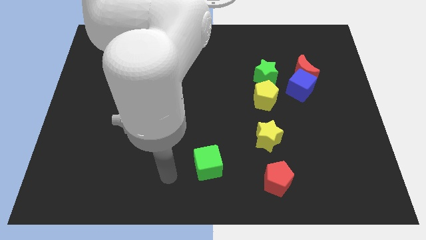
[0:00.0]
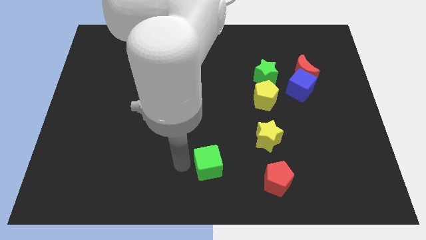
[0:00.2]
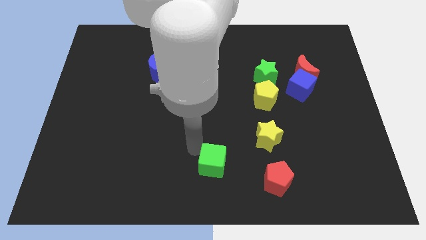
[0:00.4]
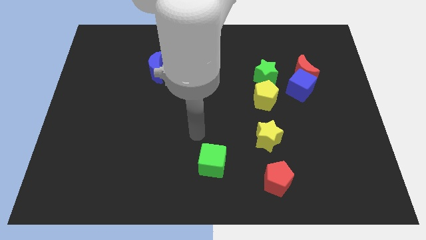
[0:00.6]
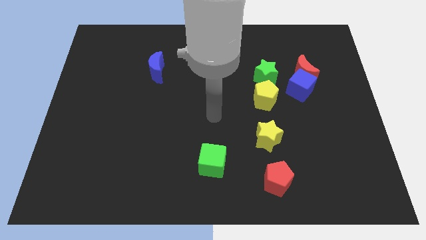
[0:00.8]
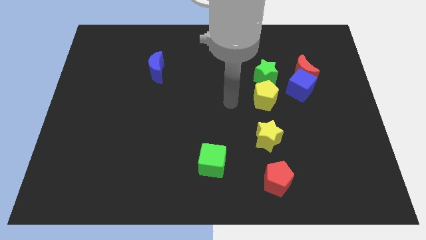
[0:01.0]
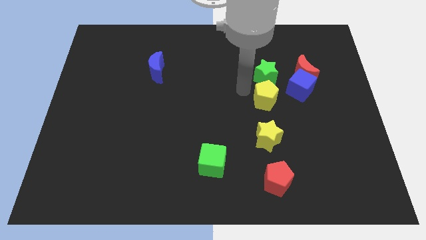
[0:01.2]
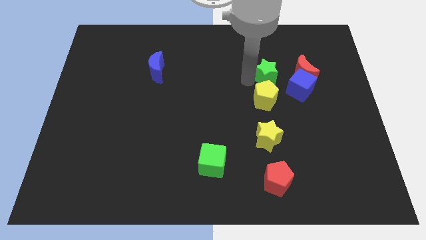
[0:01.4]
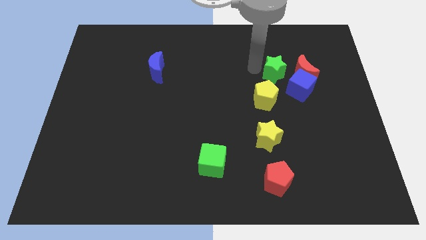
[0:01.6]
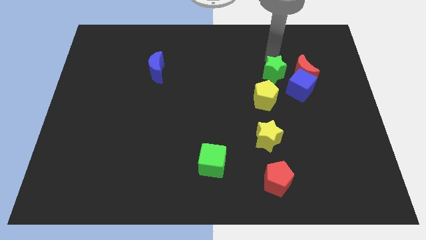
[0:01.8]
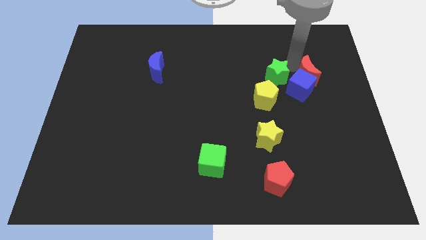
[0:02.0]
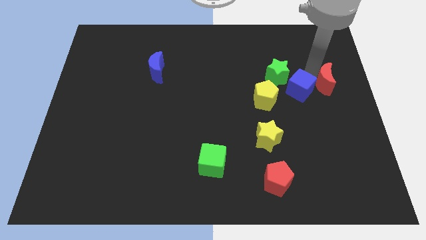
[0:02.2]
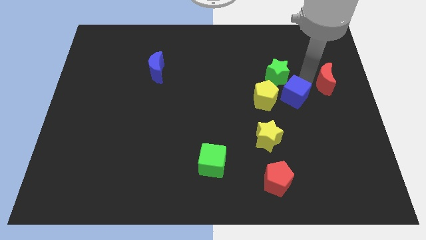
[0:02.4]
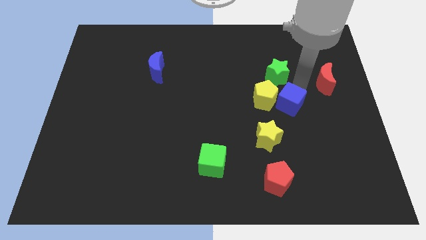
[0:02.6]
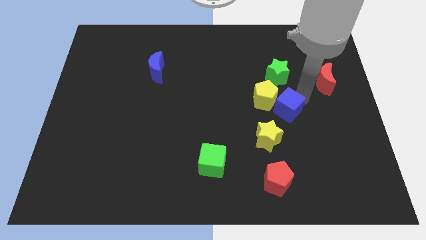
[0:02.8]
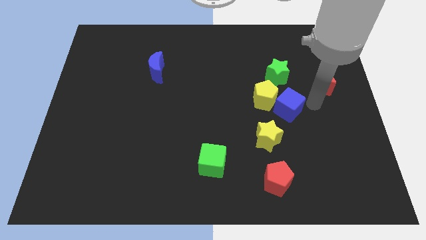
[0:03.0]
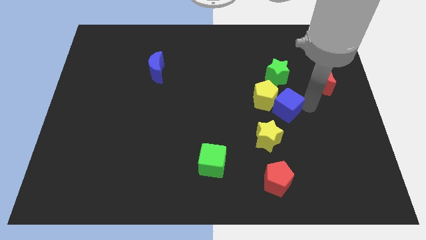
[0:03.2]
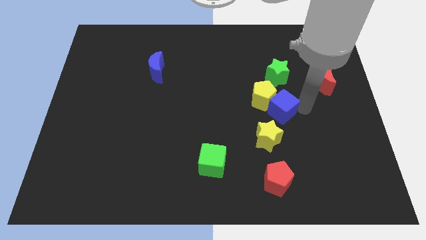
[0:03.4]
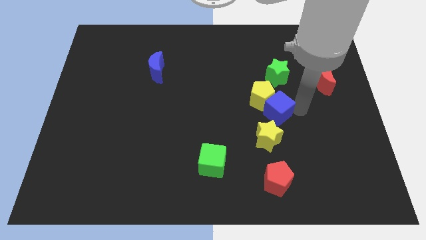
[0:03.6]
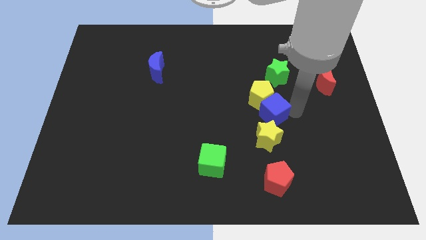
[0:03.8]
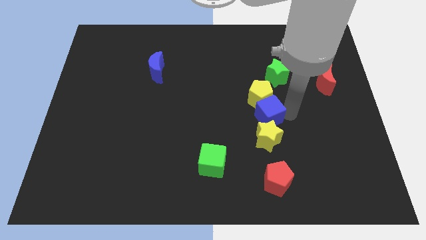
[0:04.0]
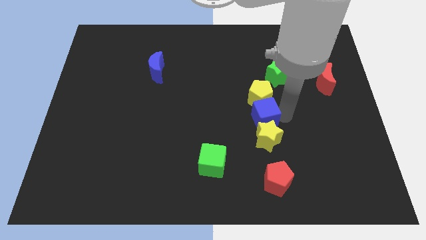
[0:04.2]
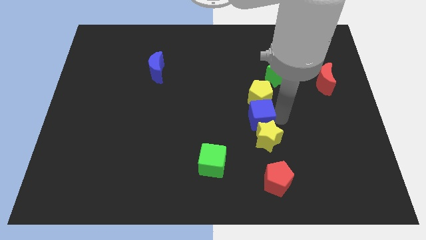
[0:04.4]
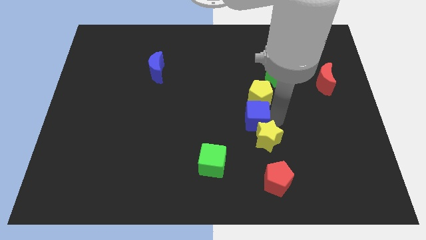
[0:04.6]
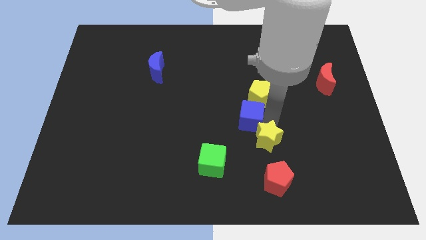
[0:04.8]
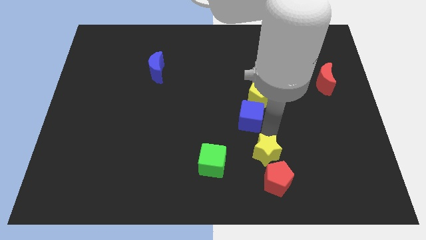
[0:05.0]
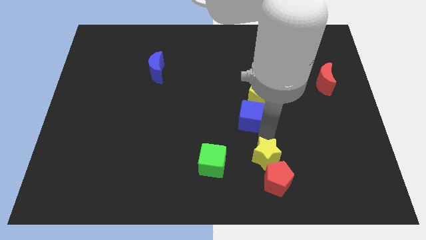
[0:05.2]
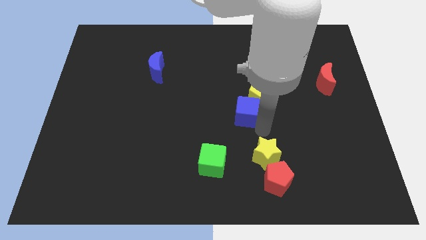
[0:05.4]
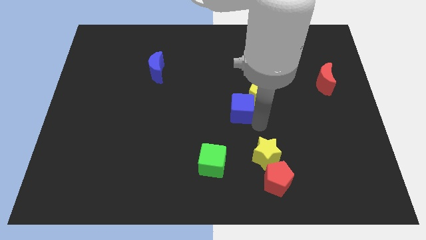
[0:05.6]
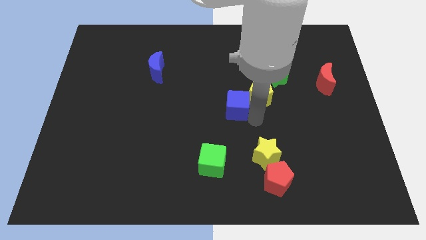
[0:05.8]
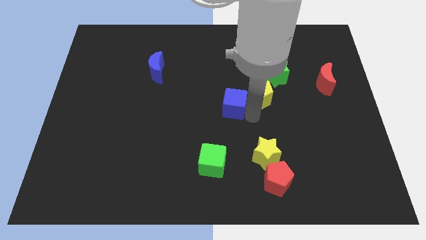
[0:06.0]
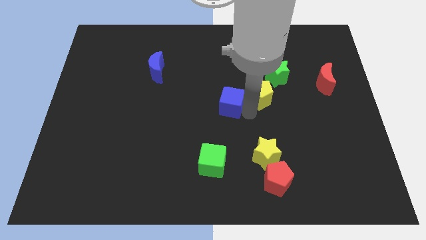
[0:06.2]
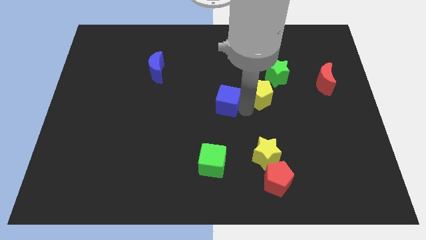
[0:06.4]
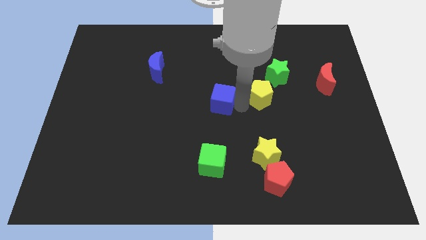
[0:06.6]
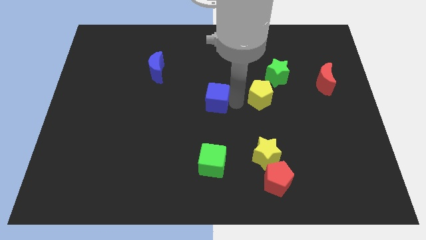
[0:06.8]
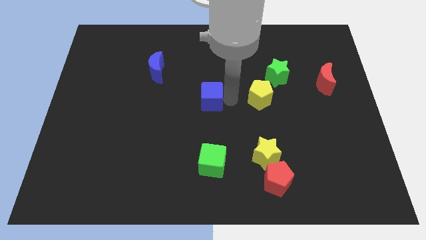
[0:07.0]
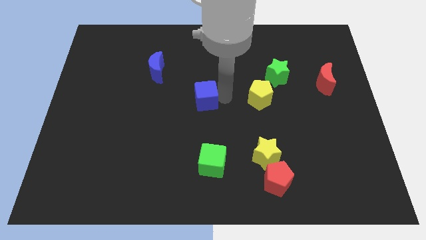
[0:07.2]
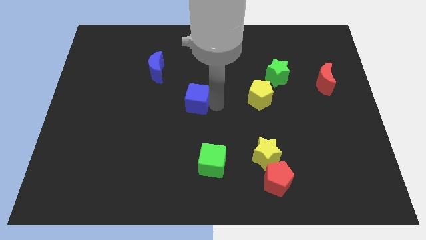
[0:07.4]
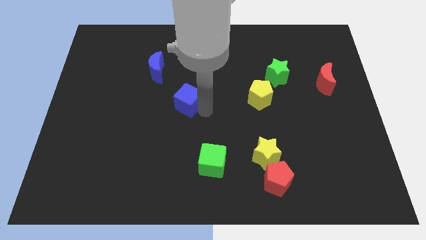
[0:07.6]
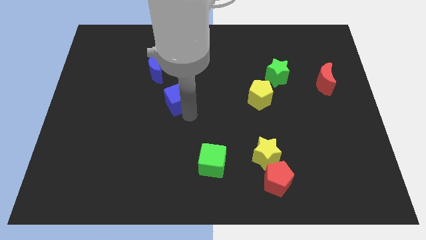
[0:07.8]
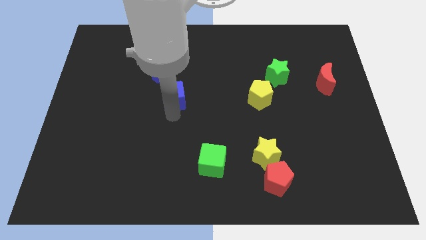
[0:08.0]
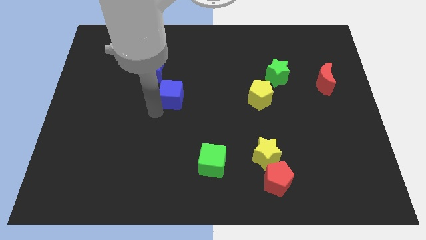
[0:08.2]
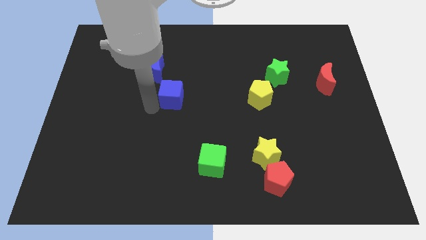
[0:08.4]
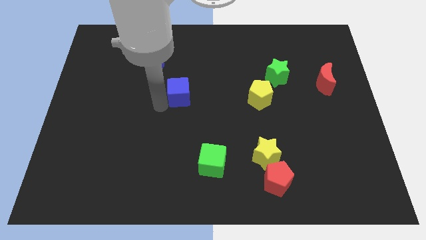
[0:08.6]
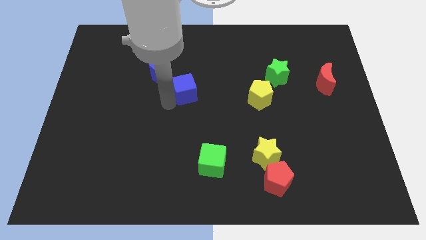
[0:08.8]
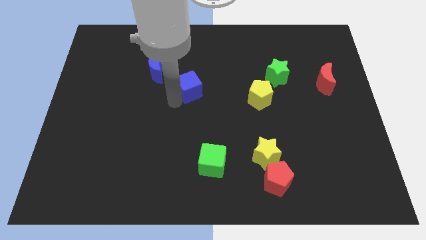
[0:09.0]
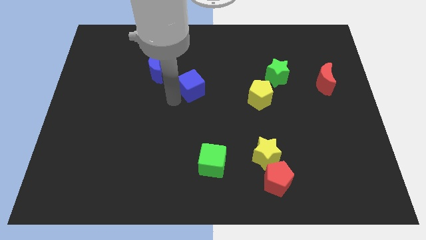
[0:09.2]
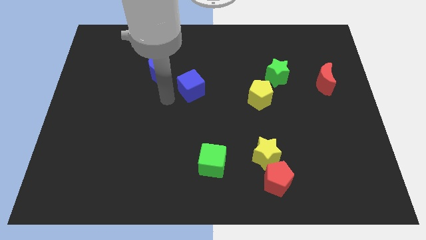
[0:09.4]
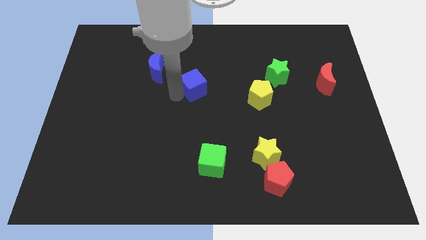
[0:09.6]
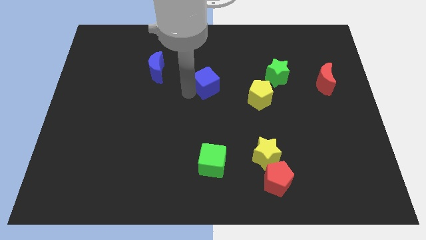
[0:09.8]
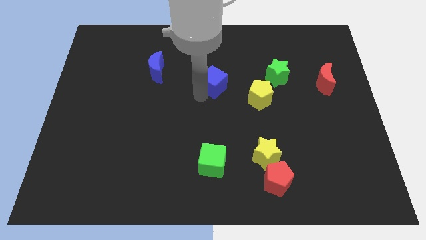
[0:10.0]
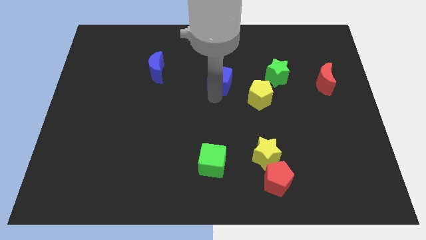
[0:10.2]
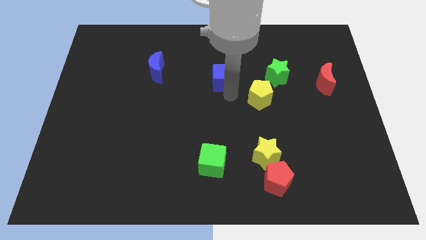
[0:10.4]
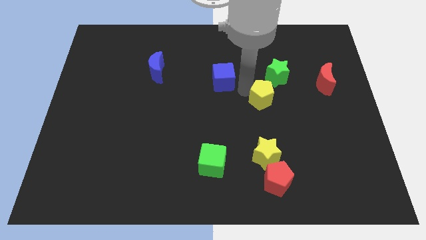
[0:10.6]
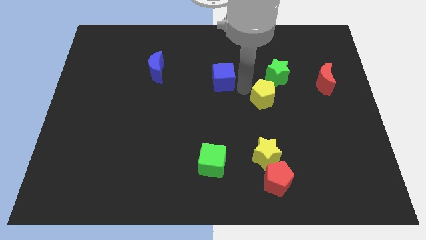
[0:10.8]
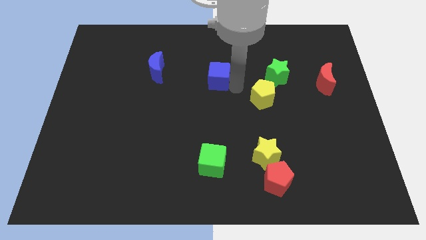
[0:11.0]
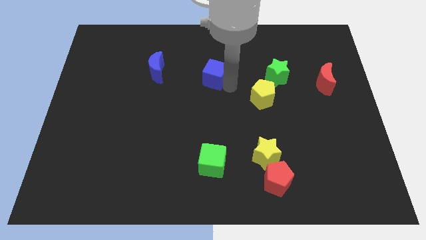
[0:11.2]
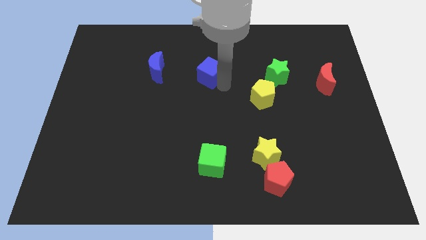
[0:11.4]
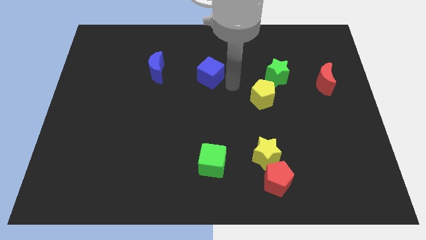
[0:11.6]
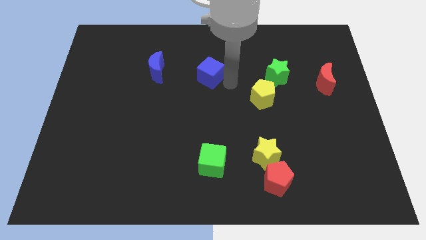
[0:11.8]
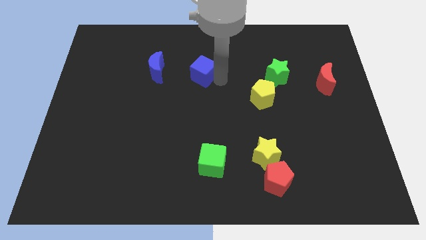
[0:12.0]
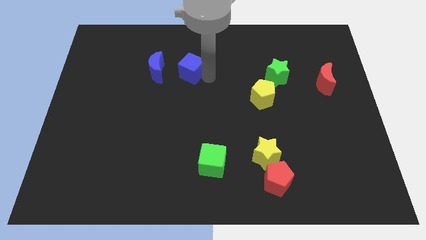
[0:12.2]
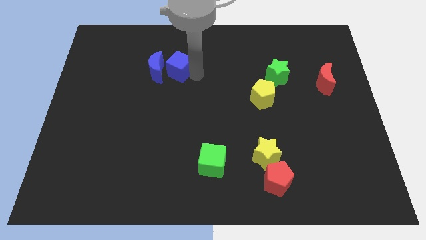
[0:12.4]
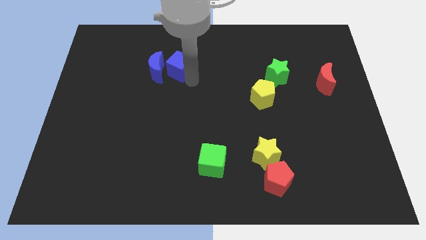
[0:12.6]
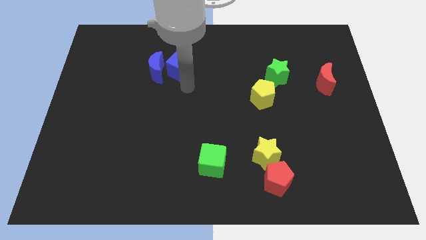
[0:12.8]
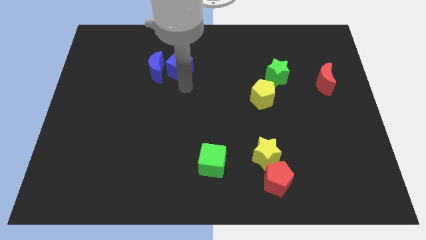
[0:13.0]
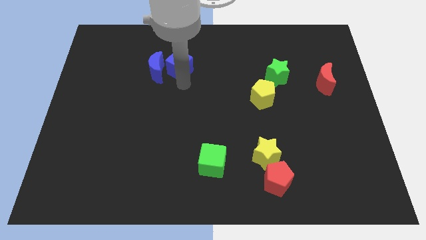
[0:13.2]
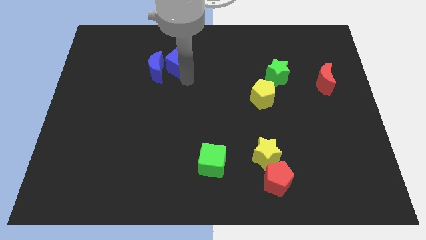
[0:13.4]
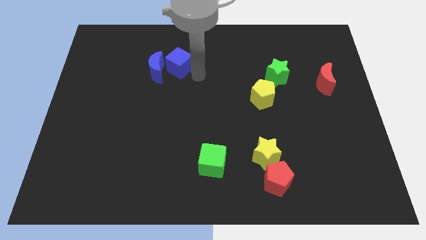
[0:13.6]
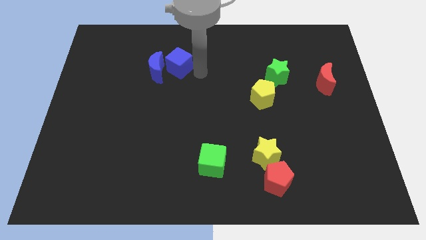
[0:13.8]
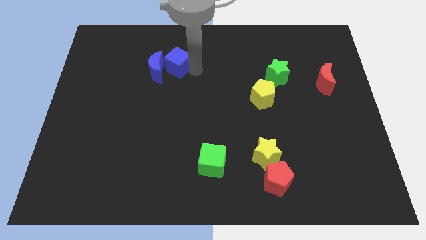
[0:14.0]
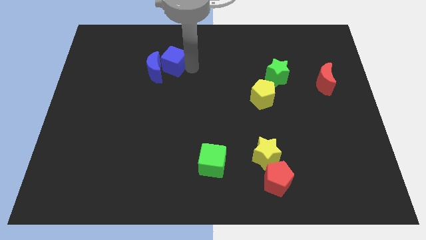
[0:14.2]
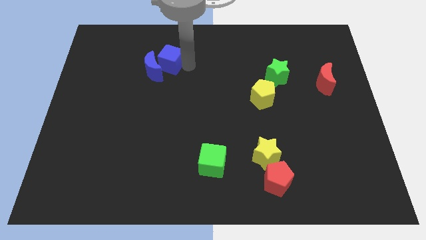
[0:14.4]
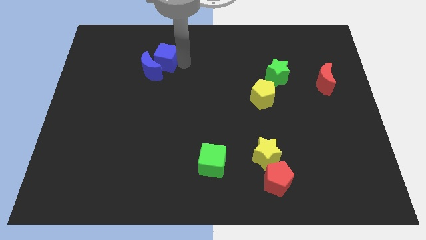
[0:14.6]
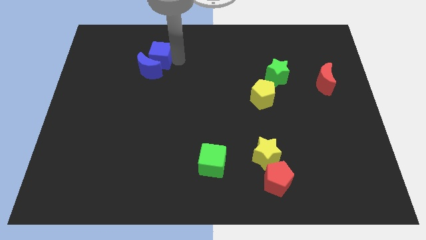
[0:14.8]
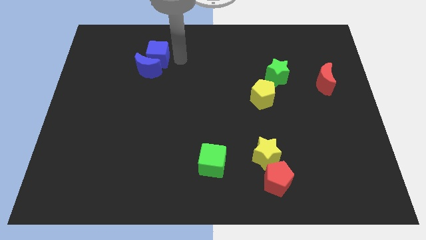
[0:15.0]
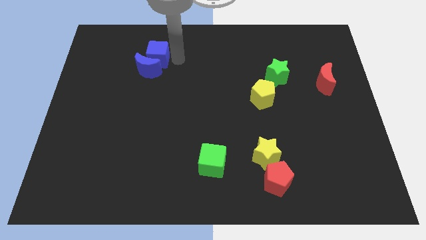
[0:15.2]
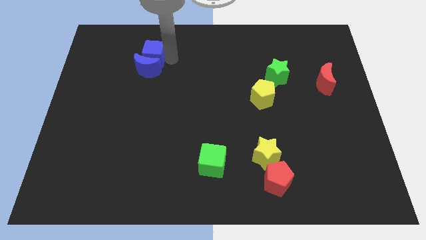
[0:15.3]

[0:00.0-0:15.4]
put the blue cube to the top left side of the blue moon

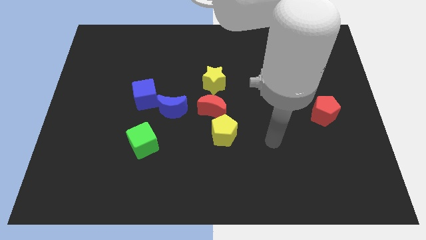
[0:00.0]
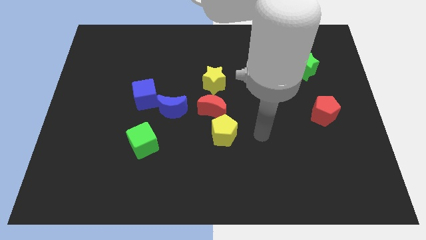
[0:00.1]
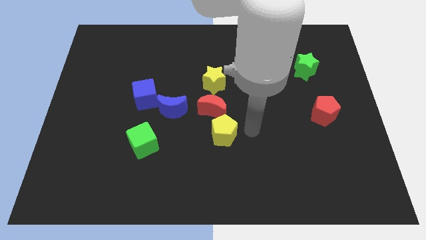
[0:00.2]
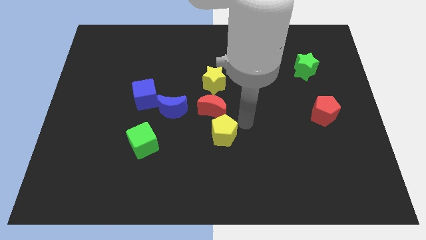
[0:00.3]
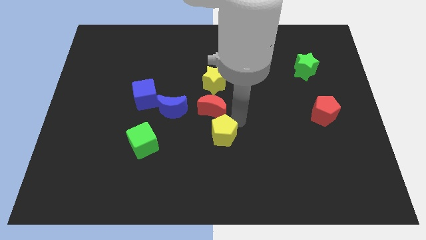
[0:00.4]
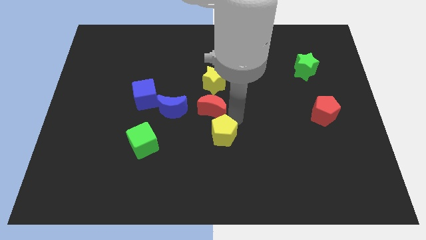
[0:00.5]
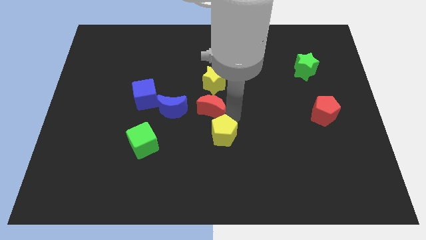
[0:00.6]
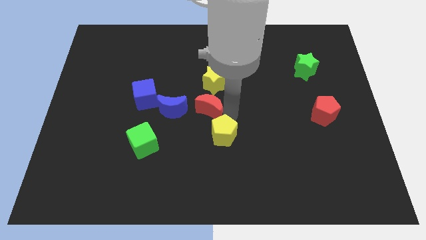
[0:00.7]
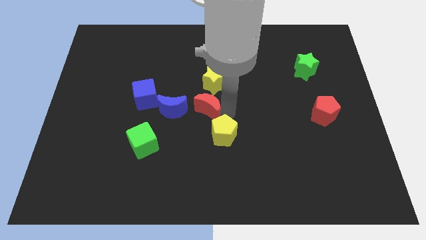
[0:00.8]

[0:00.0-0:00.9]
move the red moon to the bottom left side of the yellow star
